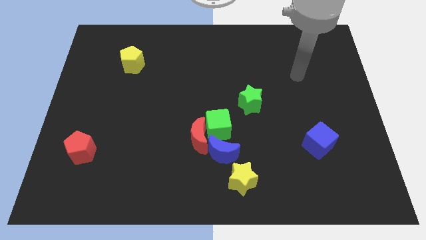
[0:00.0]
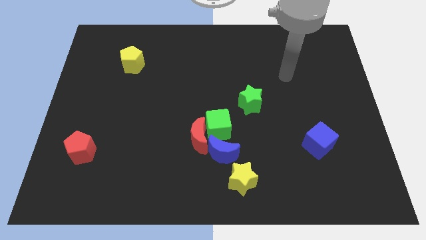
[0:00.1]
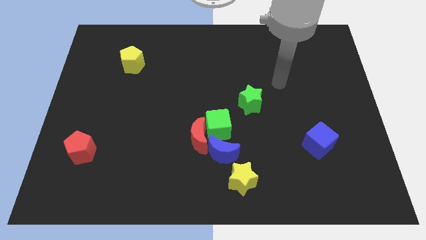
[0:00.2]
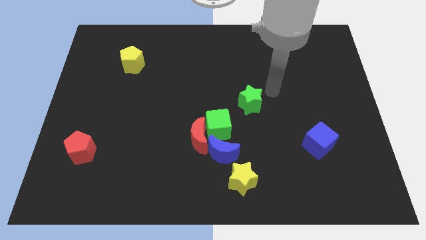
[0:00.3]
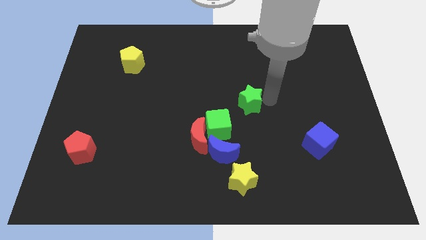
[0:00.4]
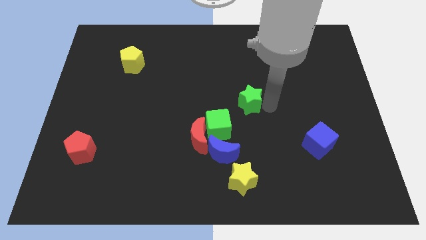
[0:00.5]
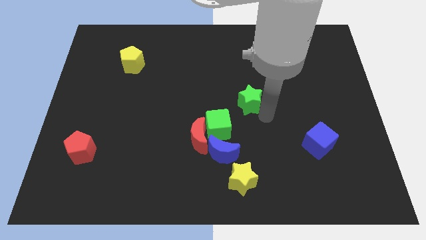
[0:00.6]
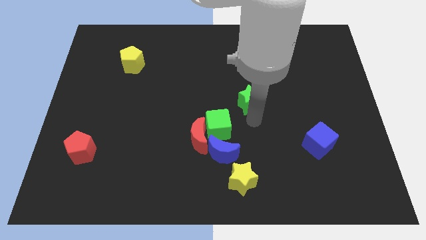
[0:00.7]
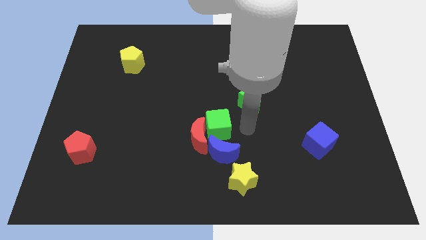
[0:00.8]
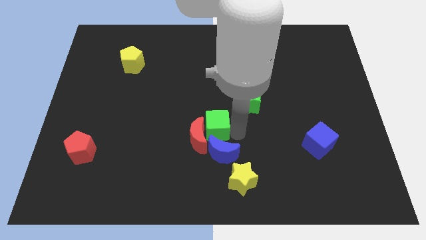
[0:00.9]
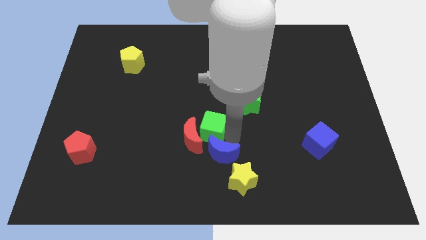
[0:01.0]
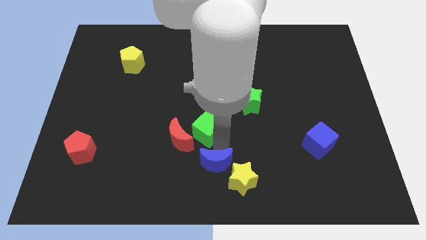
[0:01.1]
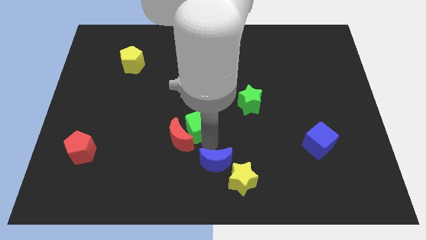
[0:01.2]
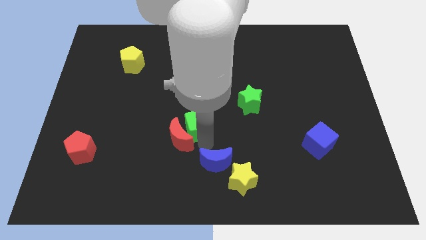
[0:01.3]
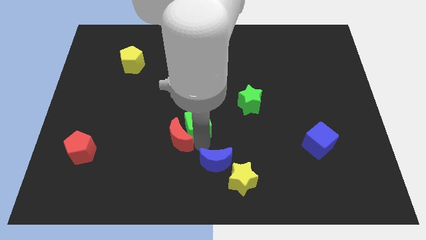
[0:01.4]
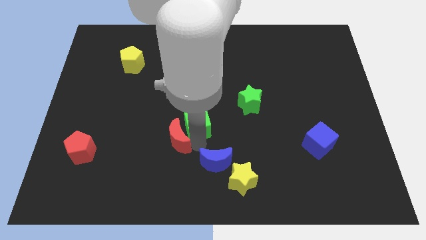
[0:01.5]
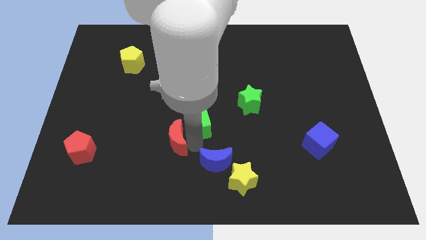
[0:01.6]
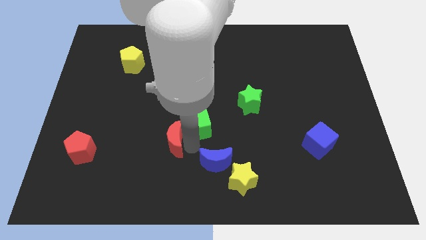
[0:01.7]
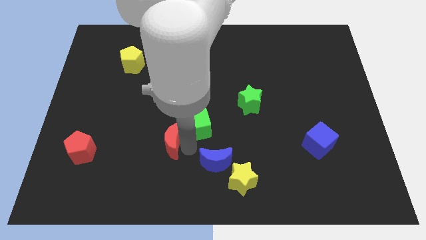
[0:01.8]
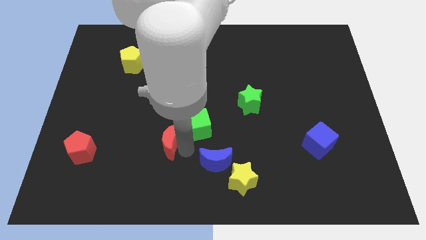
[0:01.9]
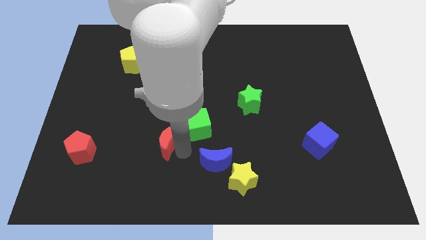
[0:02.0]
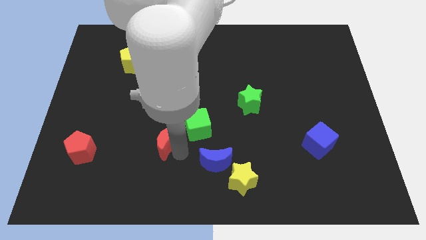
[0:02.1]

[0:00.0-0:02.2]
slightly slide the red moon left

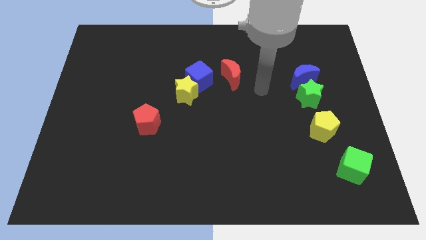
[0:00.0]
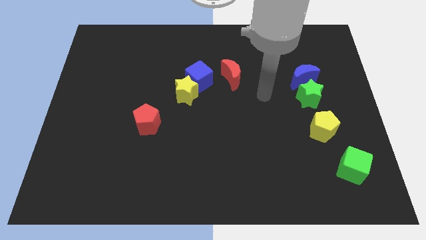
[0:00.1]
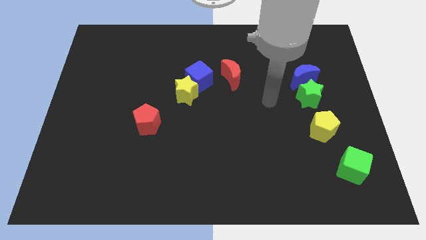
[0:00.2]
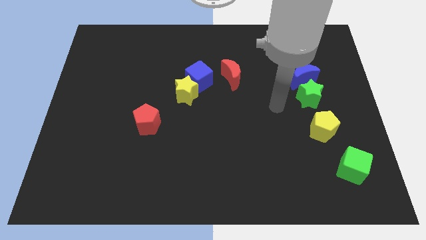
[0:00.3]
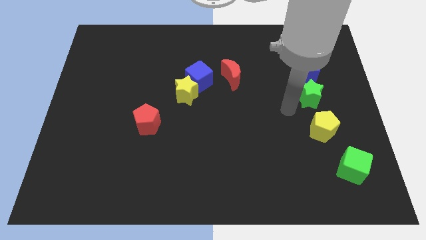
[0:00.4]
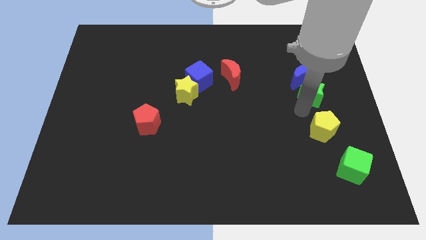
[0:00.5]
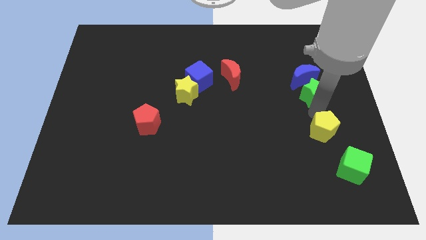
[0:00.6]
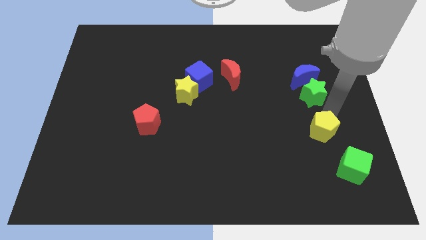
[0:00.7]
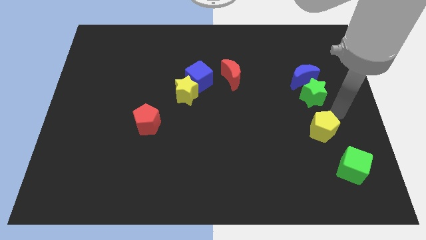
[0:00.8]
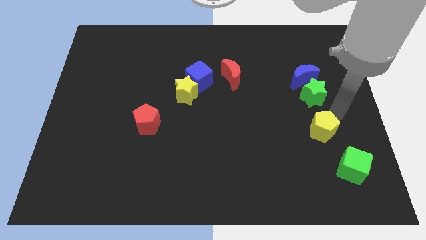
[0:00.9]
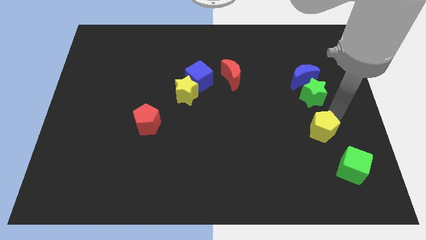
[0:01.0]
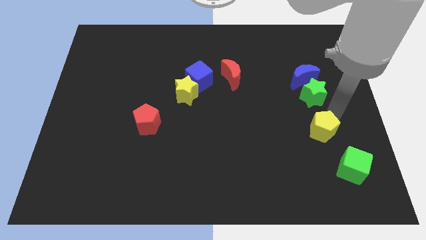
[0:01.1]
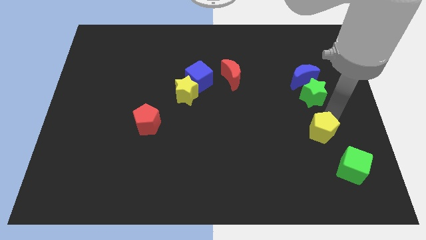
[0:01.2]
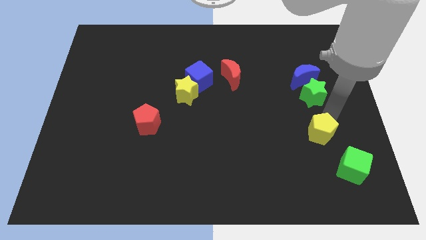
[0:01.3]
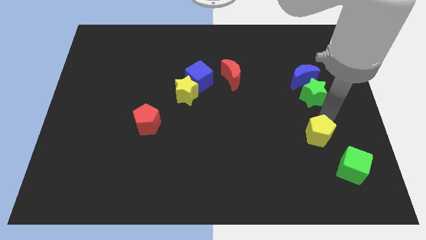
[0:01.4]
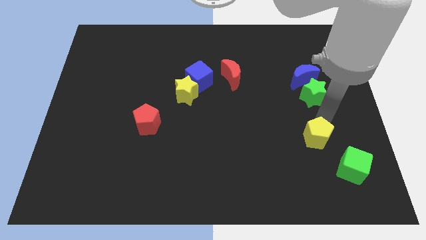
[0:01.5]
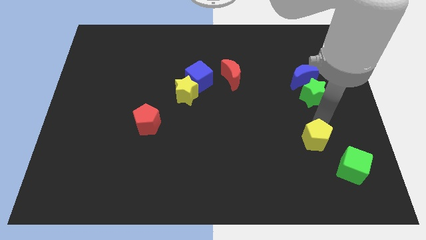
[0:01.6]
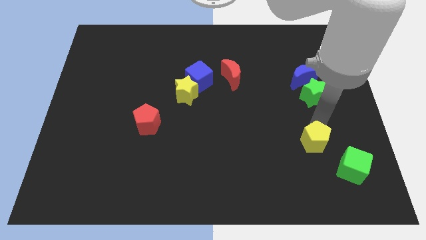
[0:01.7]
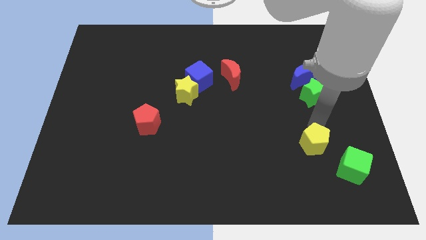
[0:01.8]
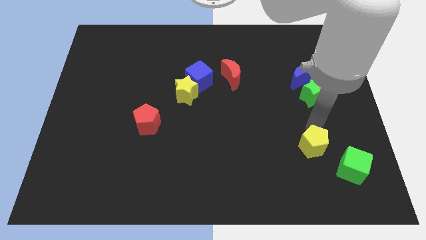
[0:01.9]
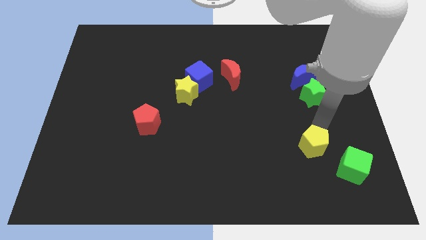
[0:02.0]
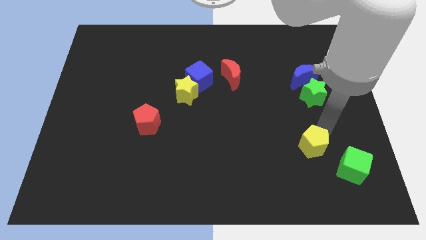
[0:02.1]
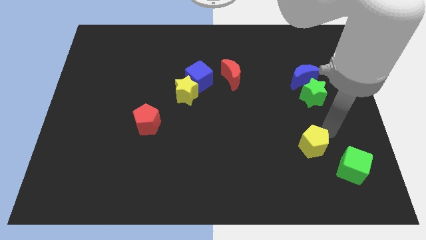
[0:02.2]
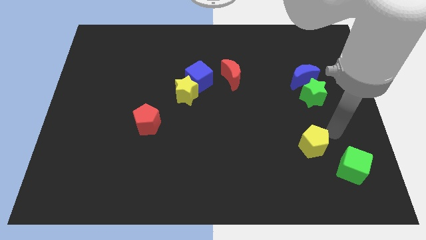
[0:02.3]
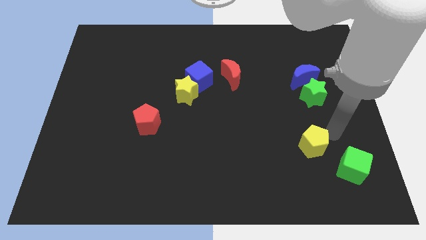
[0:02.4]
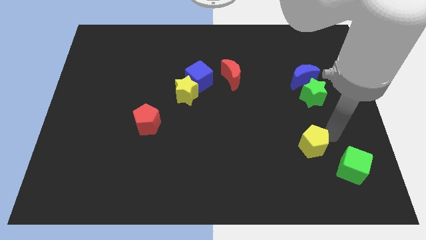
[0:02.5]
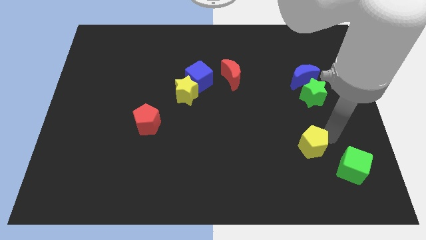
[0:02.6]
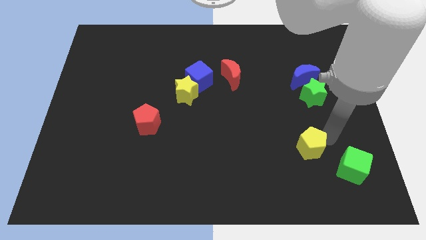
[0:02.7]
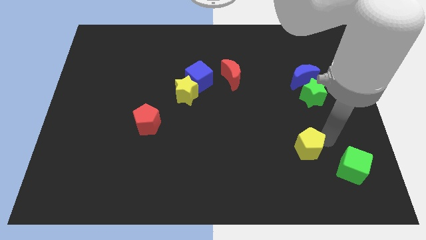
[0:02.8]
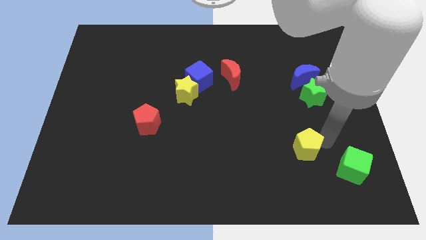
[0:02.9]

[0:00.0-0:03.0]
slightly slide the yellow pentagon diagonally down and left

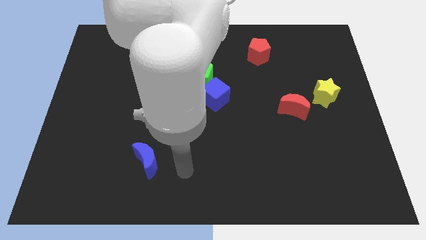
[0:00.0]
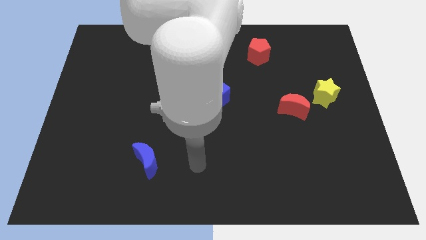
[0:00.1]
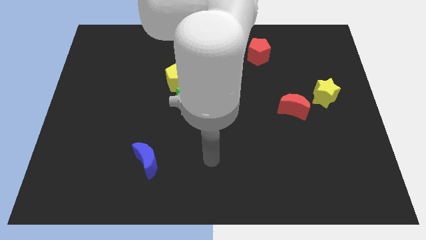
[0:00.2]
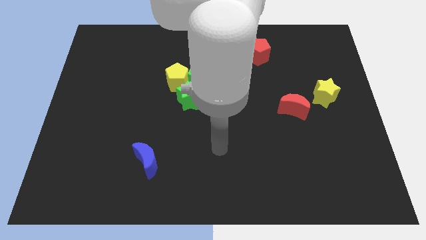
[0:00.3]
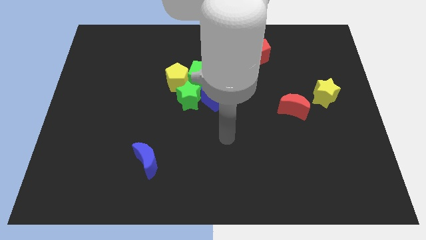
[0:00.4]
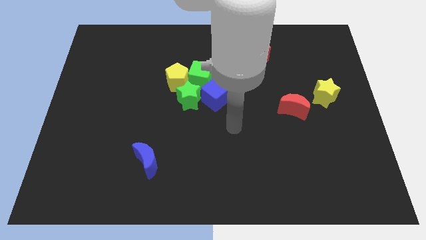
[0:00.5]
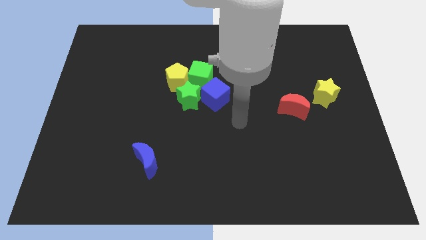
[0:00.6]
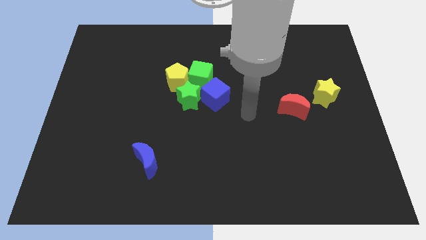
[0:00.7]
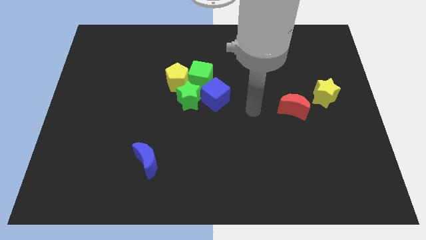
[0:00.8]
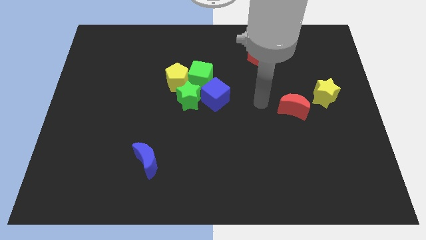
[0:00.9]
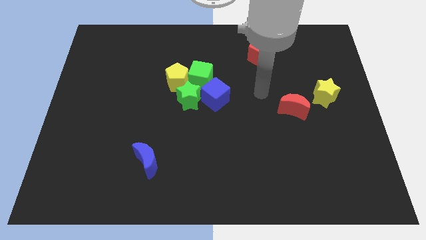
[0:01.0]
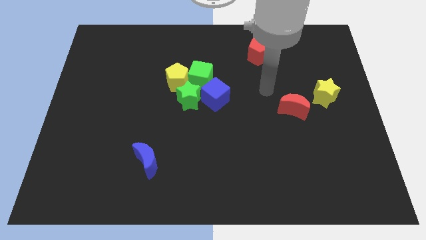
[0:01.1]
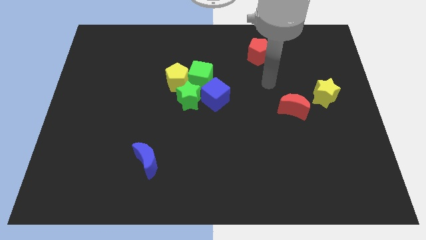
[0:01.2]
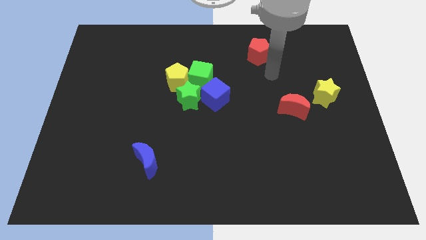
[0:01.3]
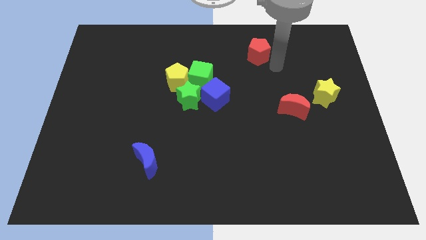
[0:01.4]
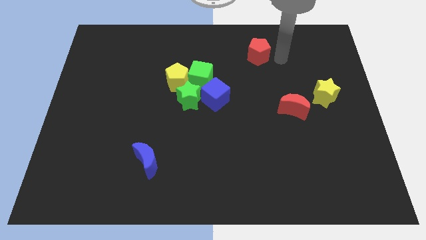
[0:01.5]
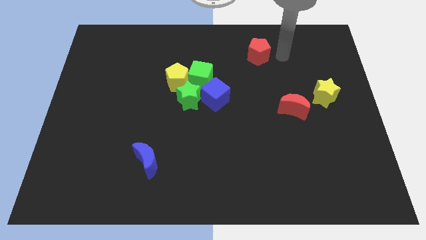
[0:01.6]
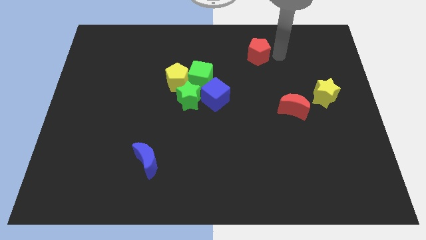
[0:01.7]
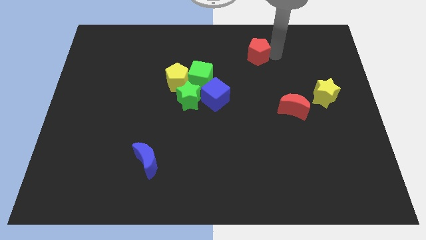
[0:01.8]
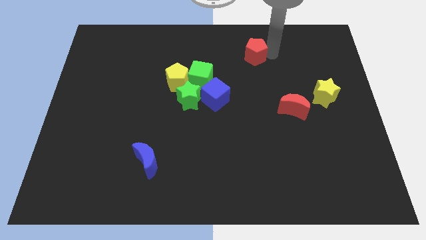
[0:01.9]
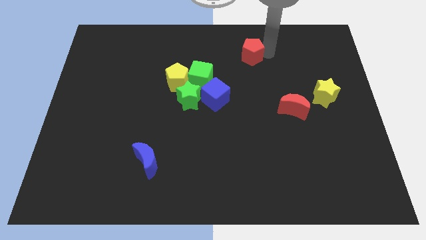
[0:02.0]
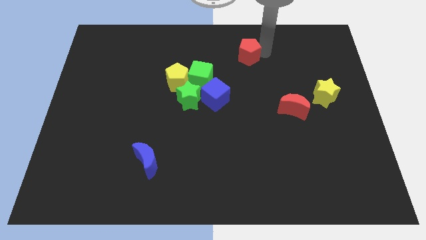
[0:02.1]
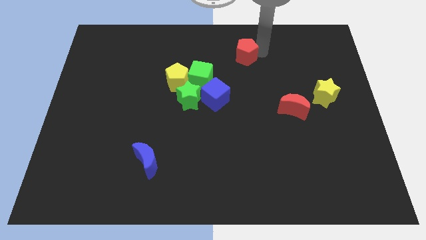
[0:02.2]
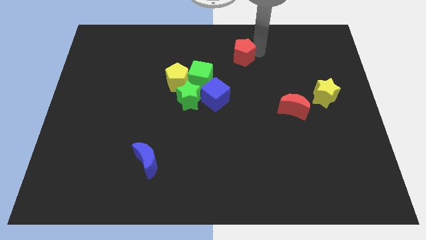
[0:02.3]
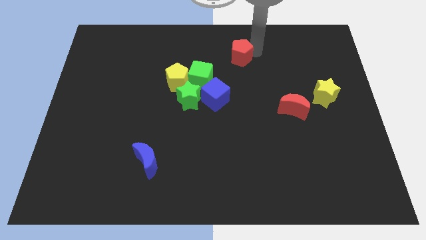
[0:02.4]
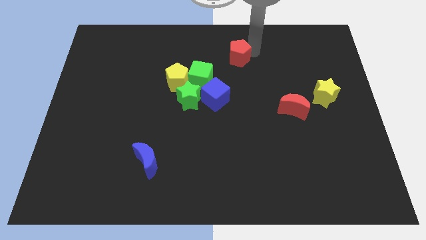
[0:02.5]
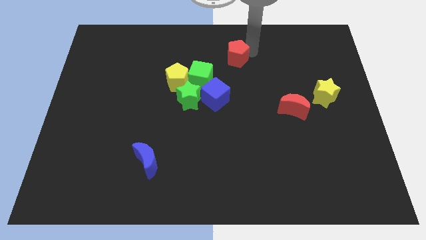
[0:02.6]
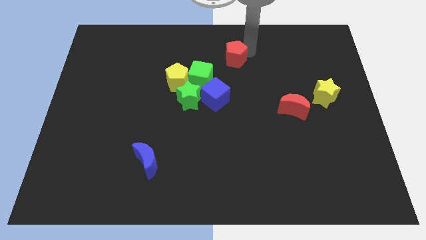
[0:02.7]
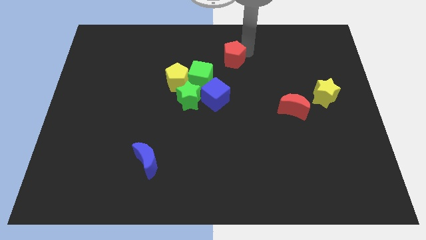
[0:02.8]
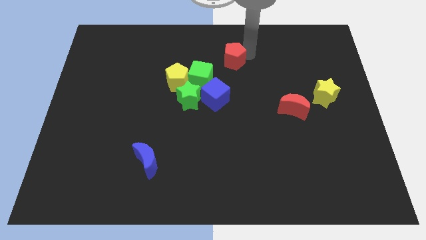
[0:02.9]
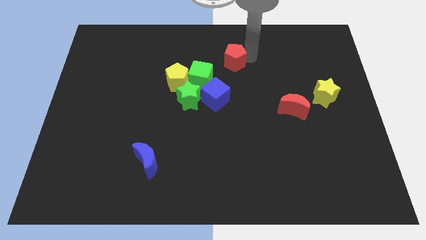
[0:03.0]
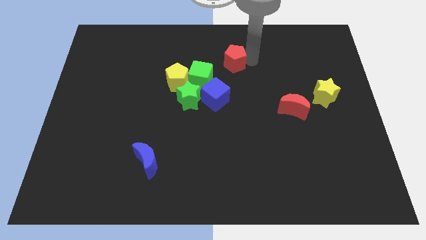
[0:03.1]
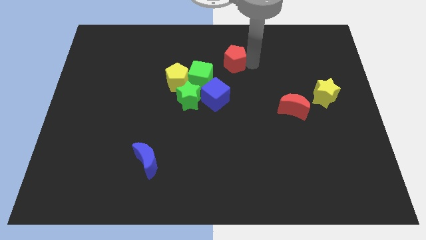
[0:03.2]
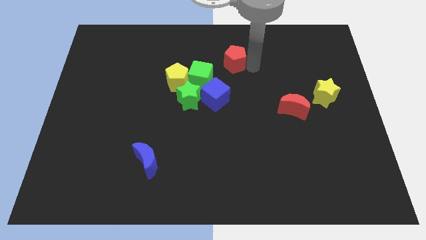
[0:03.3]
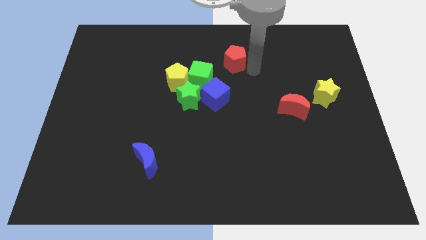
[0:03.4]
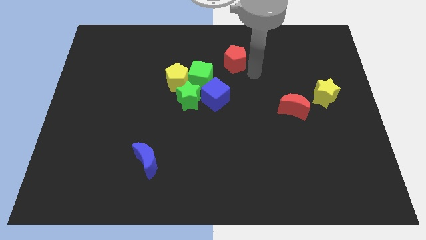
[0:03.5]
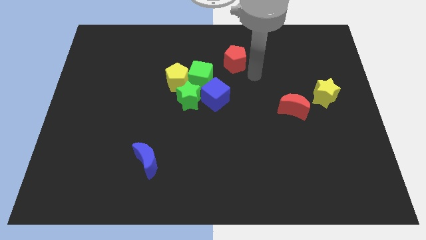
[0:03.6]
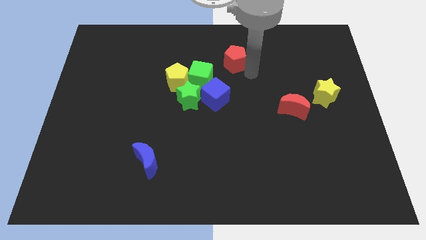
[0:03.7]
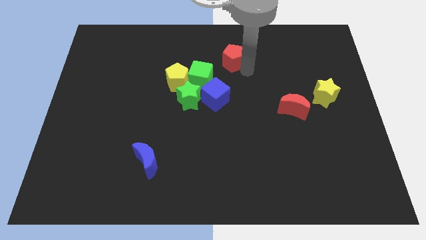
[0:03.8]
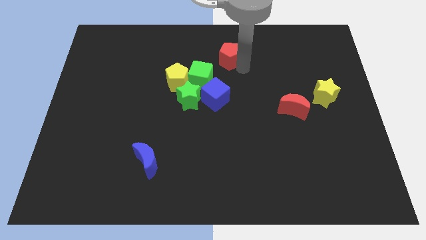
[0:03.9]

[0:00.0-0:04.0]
push the red pentagon to the left slightly
